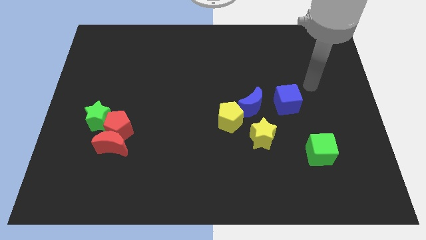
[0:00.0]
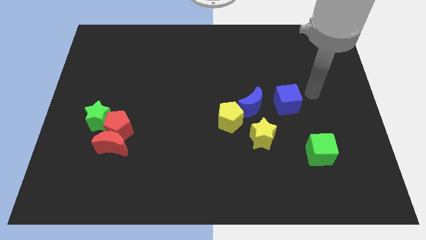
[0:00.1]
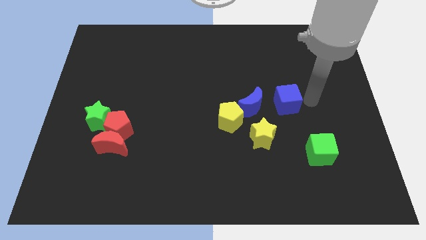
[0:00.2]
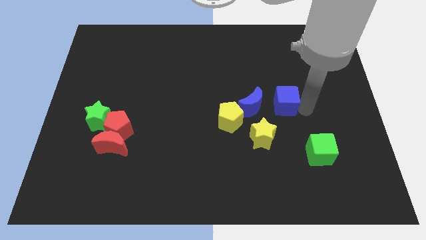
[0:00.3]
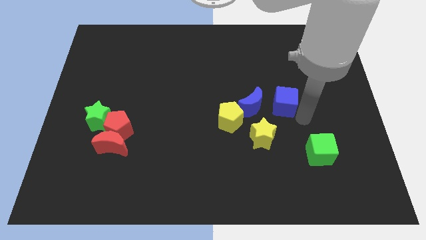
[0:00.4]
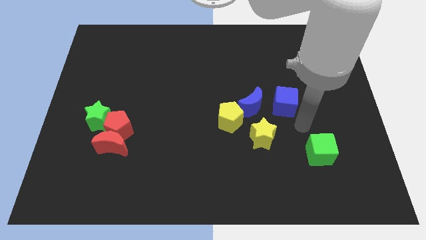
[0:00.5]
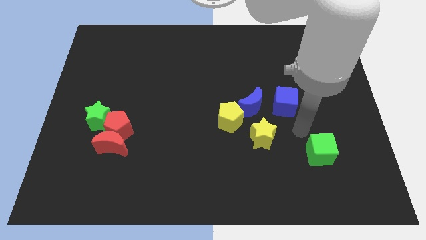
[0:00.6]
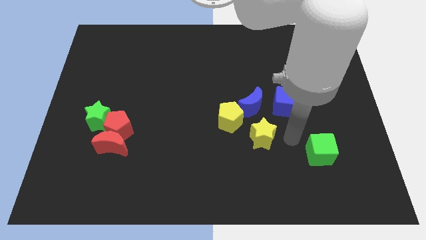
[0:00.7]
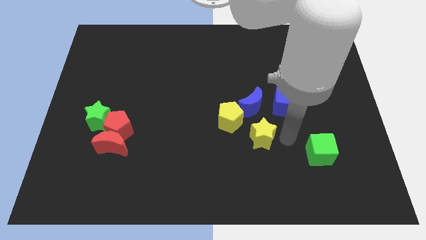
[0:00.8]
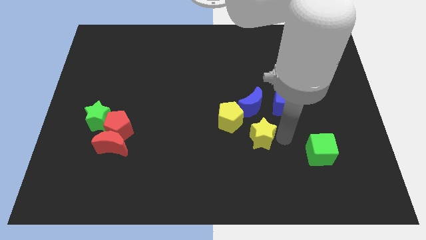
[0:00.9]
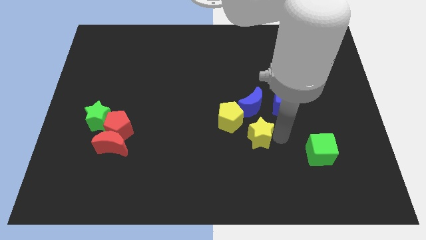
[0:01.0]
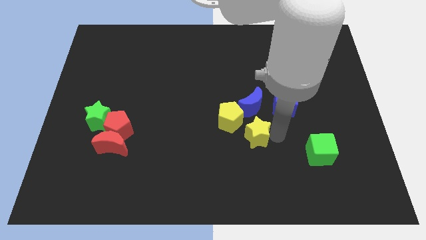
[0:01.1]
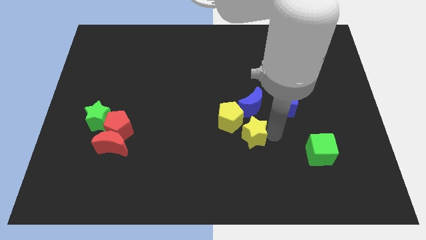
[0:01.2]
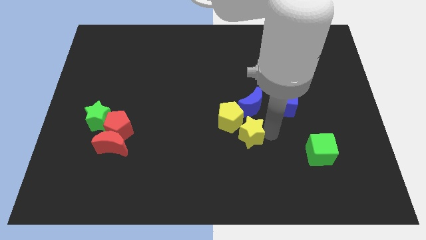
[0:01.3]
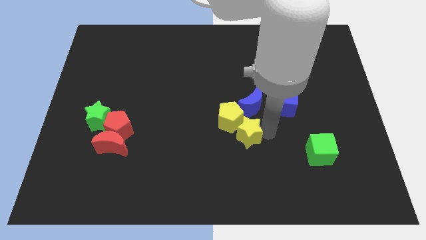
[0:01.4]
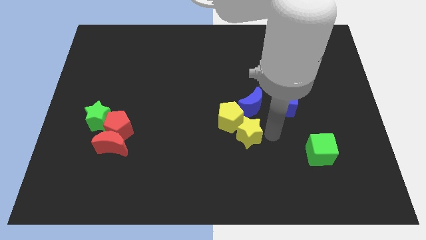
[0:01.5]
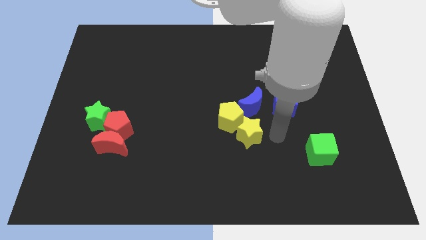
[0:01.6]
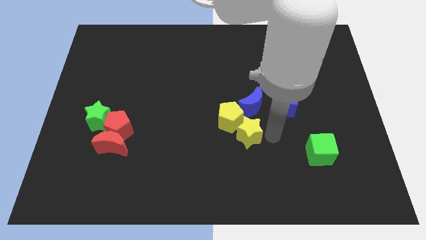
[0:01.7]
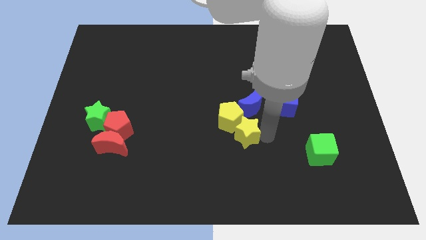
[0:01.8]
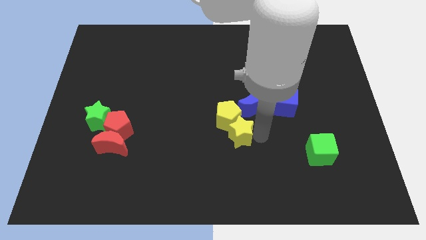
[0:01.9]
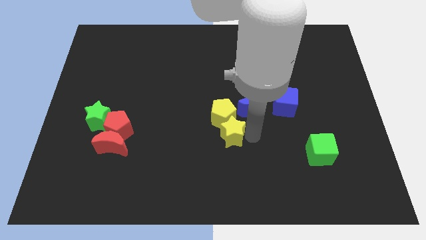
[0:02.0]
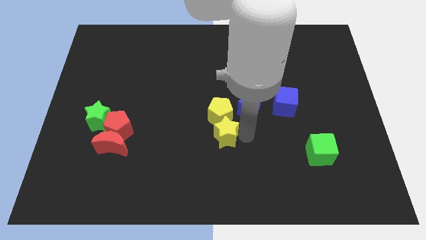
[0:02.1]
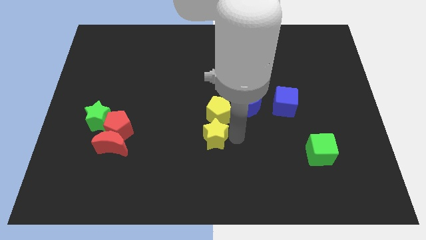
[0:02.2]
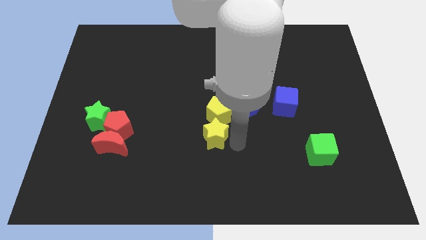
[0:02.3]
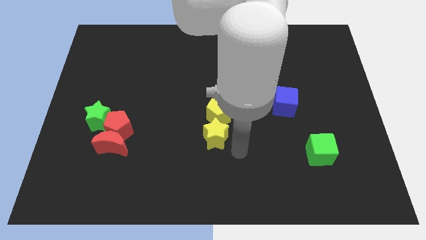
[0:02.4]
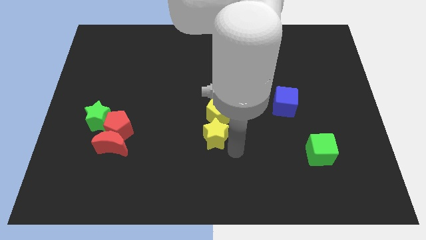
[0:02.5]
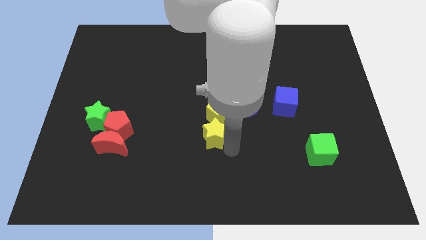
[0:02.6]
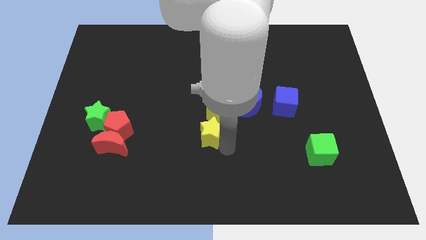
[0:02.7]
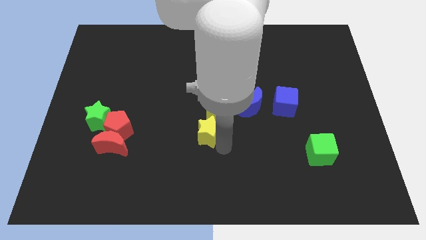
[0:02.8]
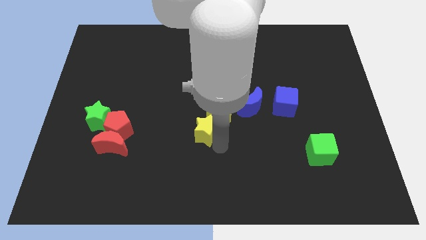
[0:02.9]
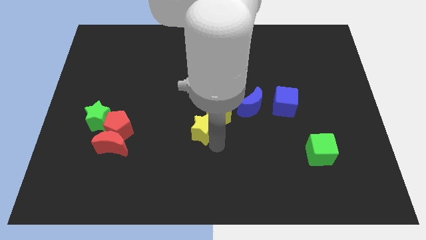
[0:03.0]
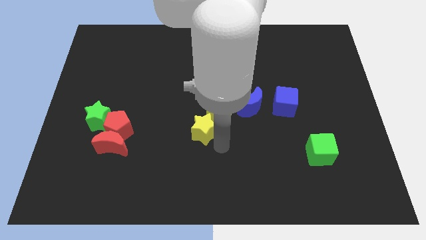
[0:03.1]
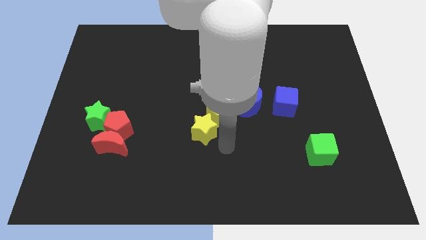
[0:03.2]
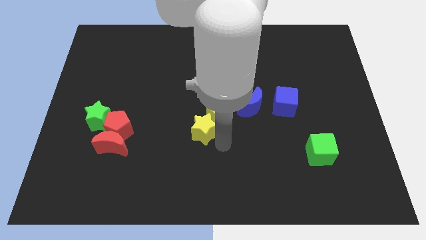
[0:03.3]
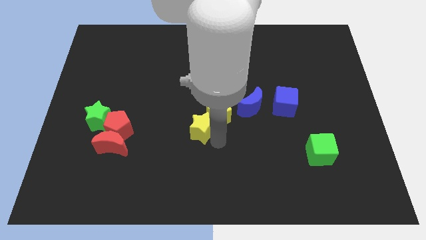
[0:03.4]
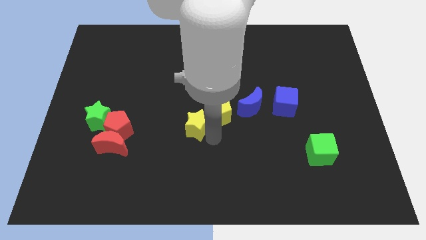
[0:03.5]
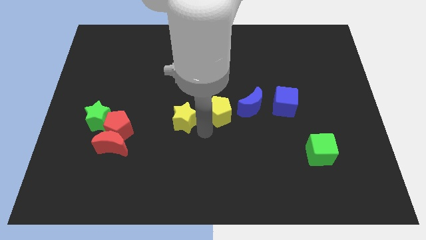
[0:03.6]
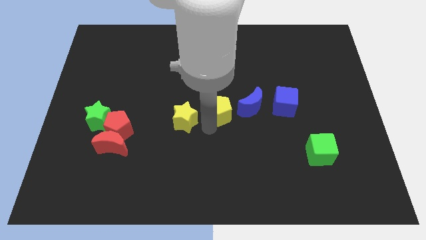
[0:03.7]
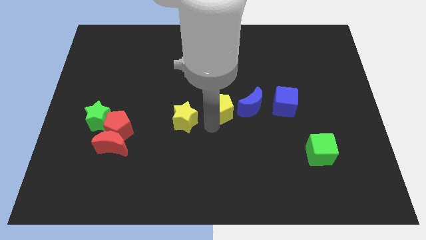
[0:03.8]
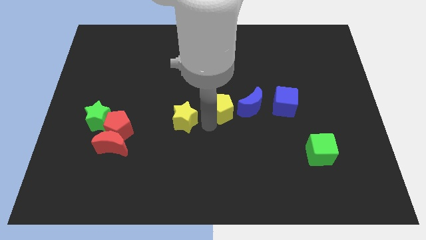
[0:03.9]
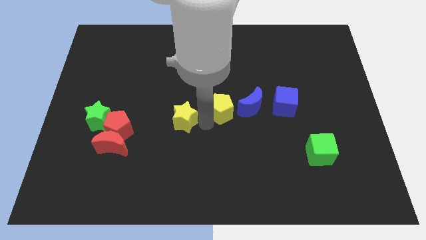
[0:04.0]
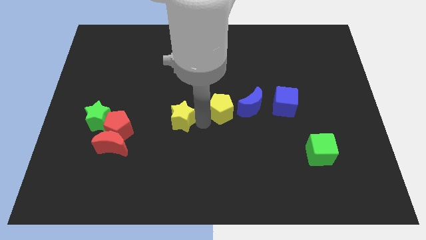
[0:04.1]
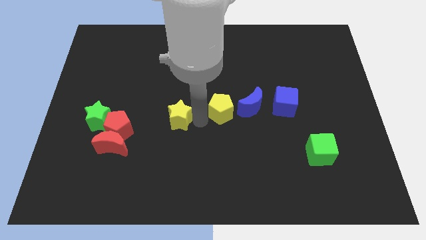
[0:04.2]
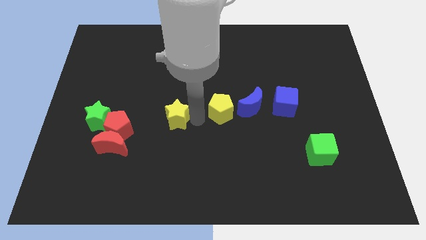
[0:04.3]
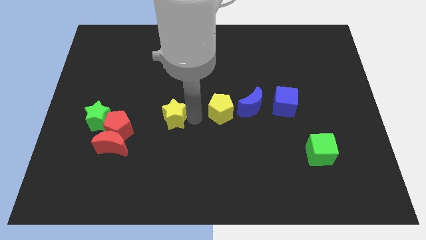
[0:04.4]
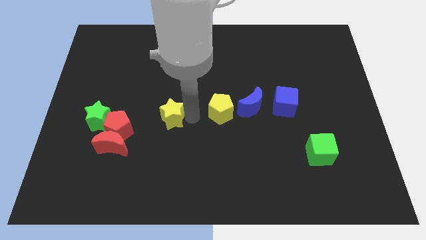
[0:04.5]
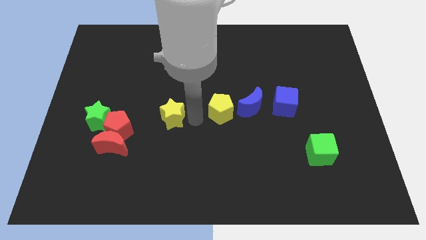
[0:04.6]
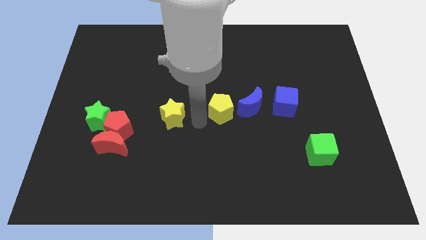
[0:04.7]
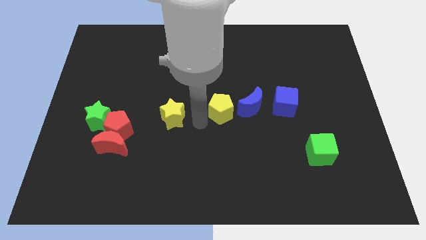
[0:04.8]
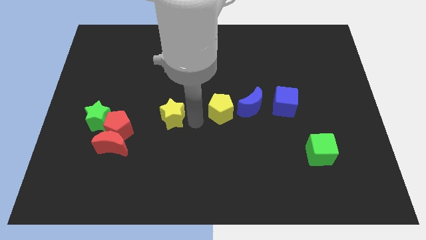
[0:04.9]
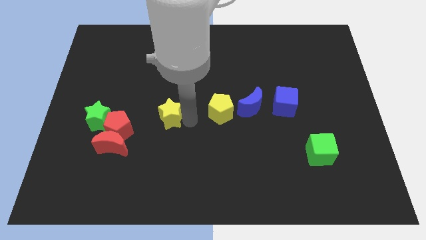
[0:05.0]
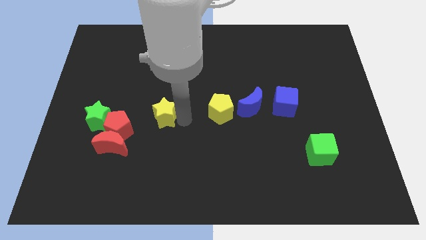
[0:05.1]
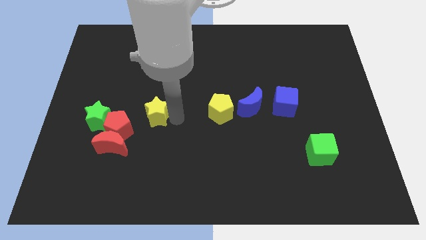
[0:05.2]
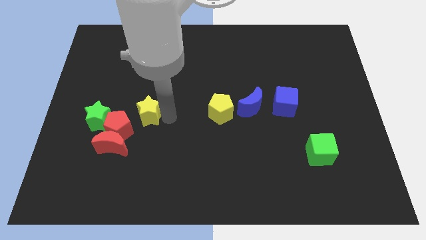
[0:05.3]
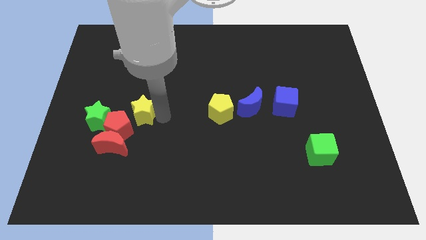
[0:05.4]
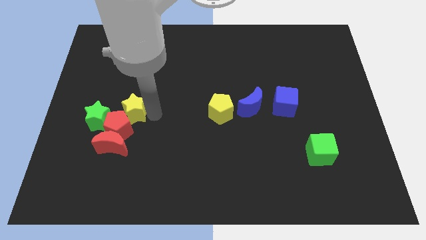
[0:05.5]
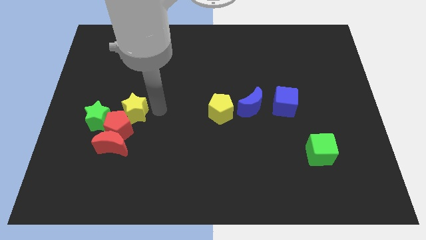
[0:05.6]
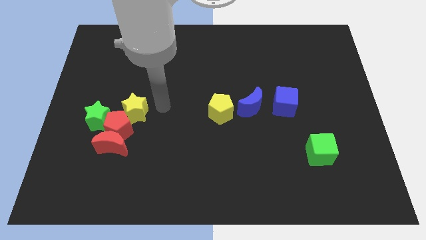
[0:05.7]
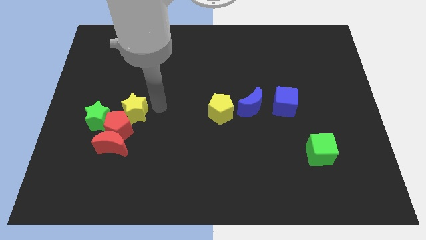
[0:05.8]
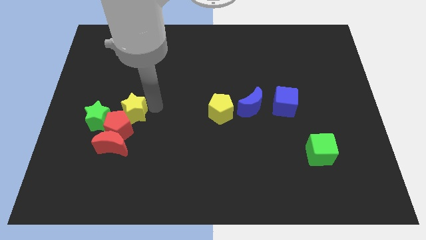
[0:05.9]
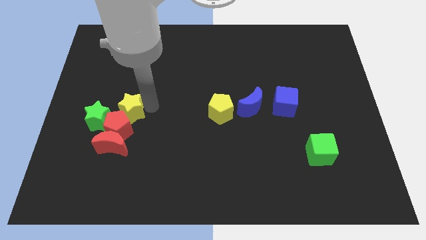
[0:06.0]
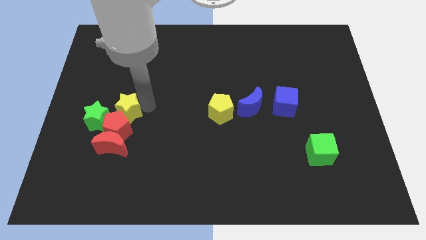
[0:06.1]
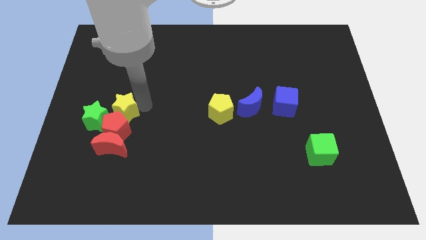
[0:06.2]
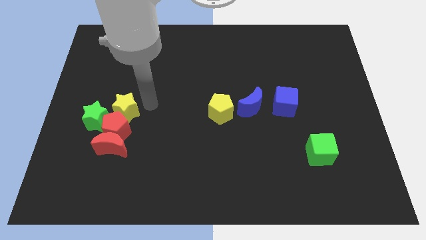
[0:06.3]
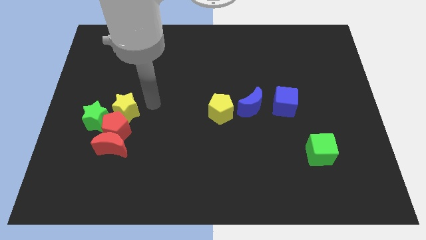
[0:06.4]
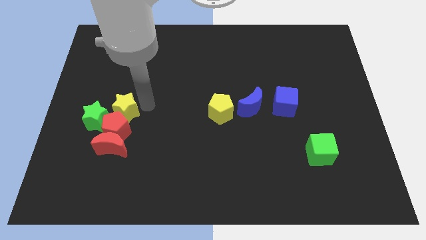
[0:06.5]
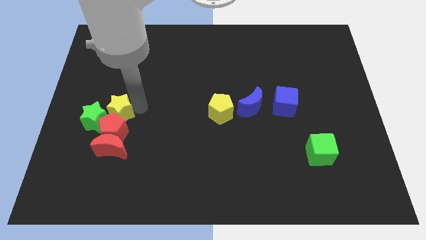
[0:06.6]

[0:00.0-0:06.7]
slide the yellow star next to the green star

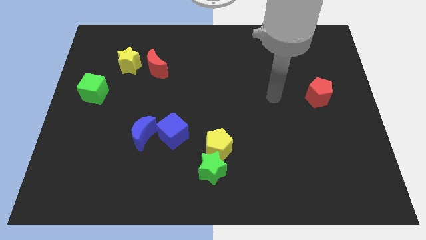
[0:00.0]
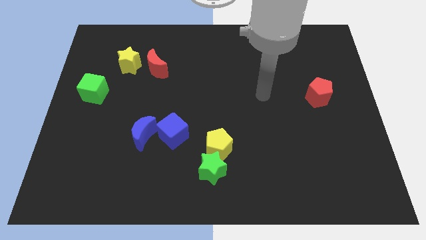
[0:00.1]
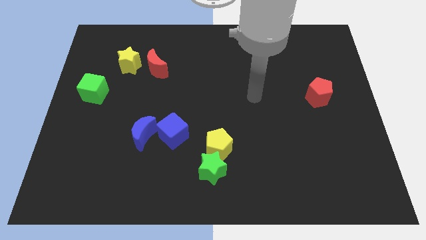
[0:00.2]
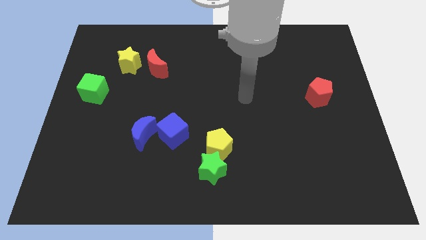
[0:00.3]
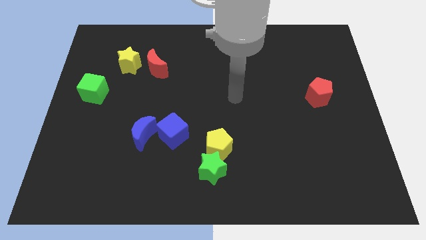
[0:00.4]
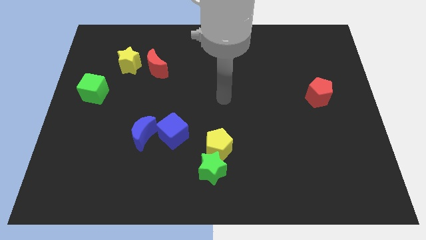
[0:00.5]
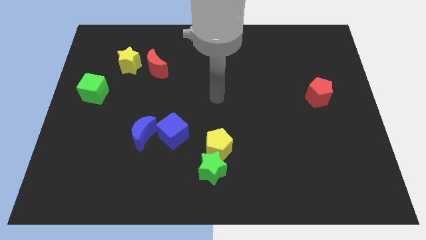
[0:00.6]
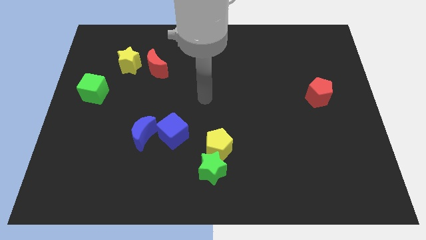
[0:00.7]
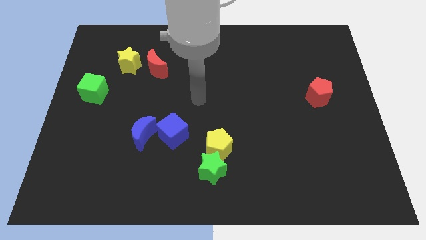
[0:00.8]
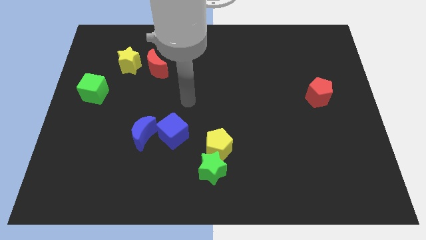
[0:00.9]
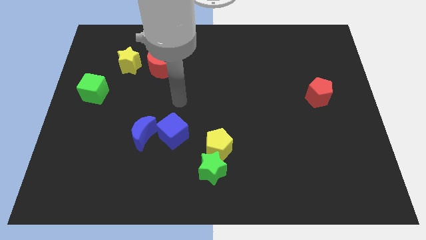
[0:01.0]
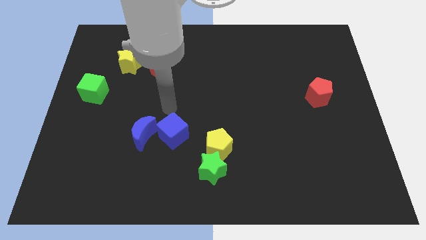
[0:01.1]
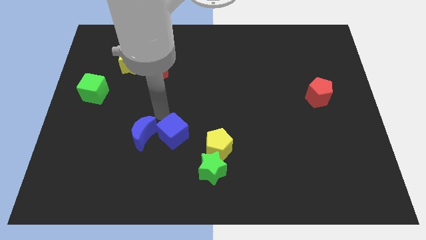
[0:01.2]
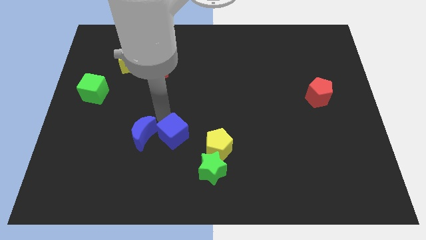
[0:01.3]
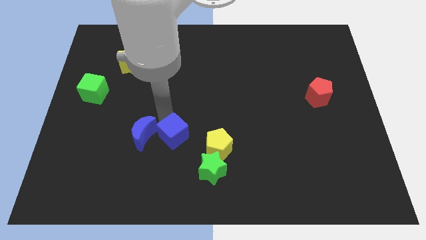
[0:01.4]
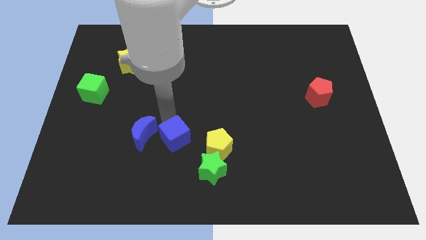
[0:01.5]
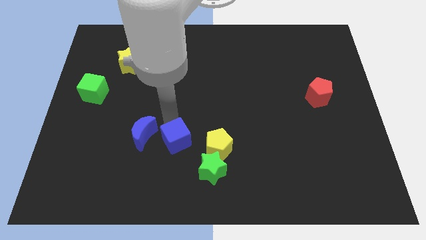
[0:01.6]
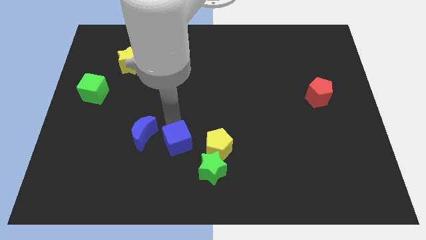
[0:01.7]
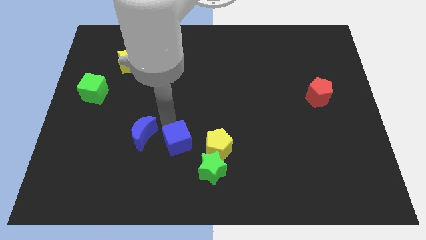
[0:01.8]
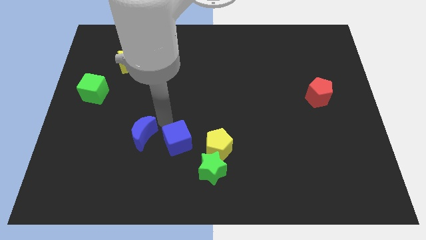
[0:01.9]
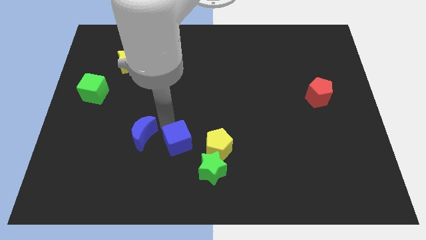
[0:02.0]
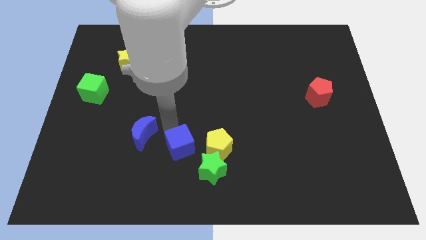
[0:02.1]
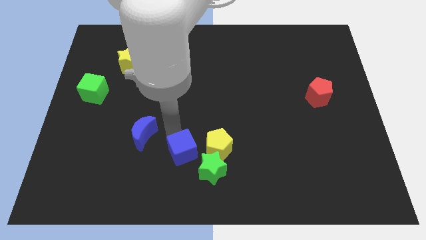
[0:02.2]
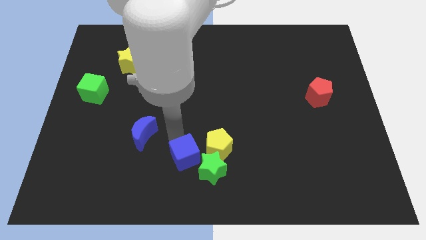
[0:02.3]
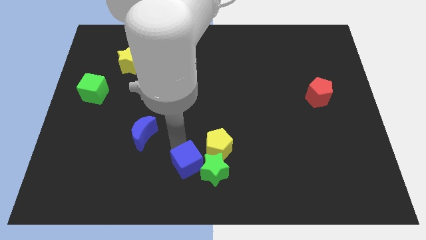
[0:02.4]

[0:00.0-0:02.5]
slide the blue cube to the green star
